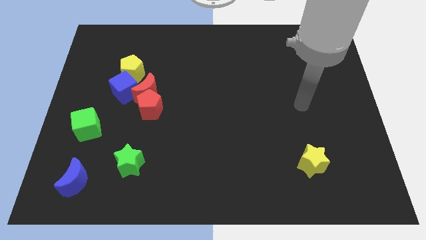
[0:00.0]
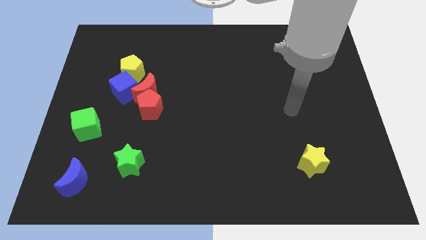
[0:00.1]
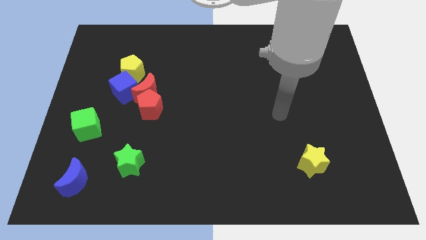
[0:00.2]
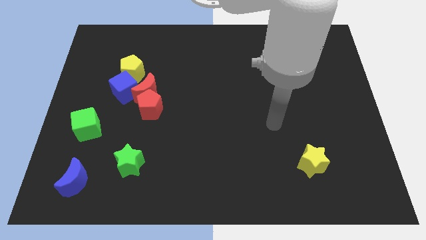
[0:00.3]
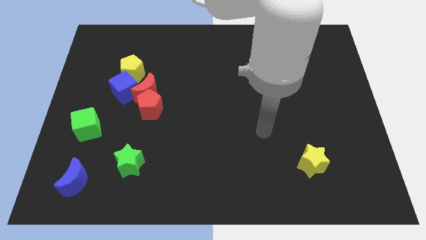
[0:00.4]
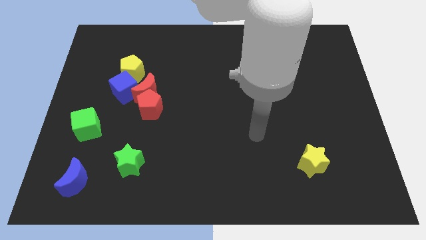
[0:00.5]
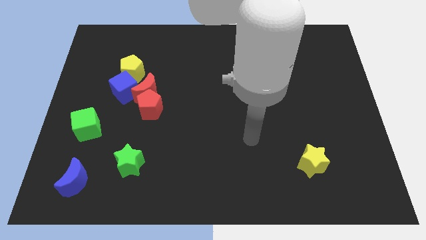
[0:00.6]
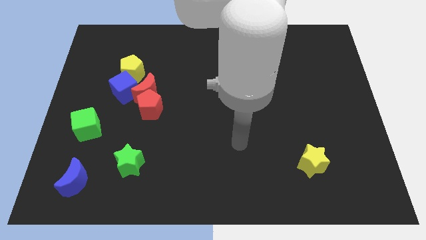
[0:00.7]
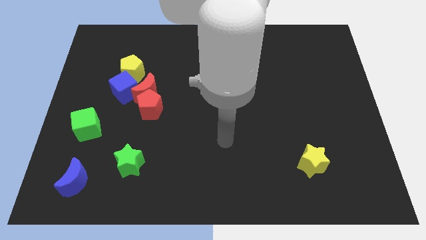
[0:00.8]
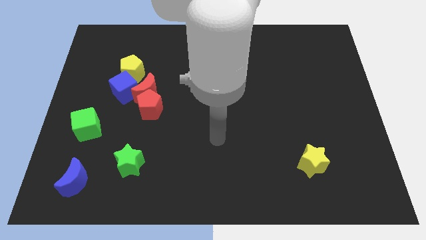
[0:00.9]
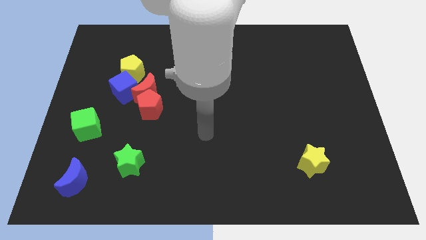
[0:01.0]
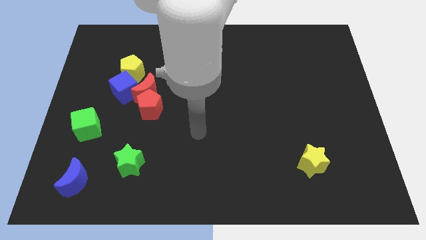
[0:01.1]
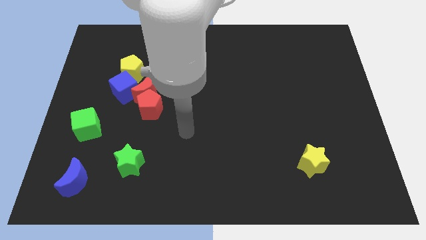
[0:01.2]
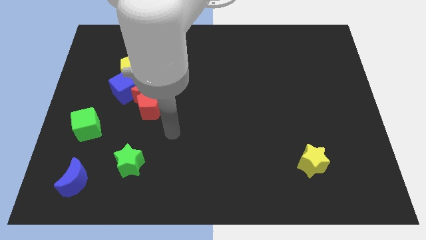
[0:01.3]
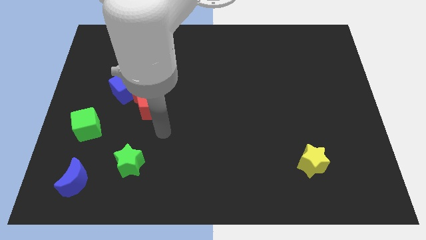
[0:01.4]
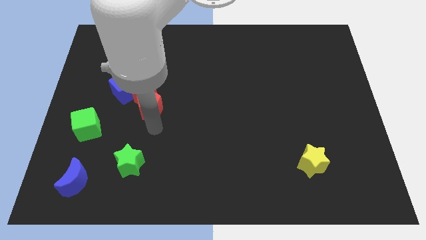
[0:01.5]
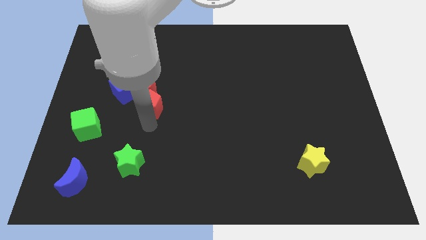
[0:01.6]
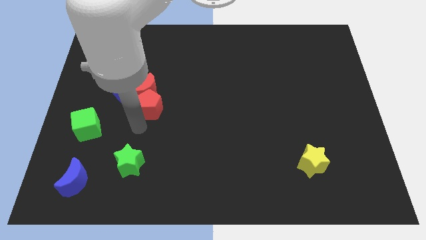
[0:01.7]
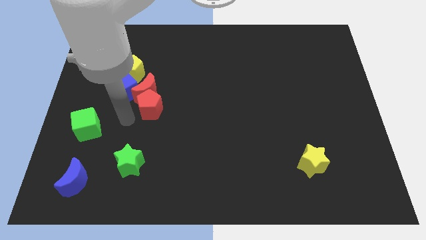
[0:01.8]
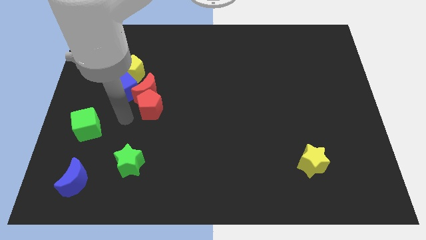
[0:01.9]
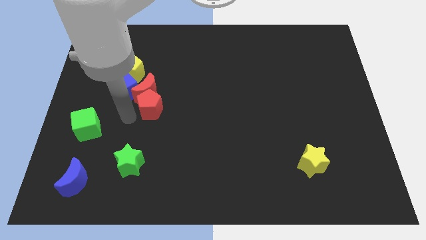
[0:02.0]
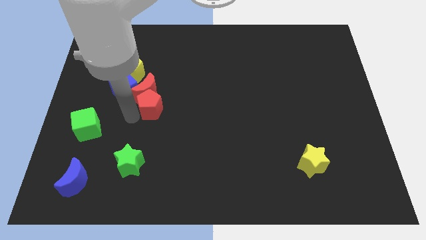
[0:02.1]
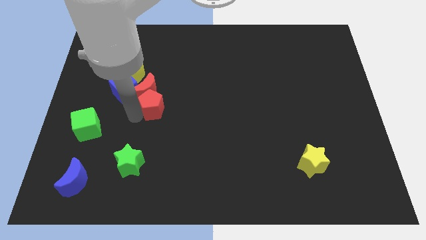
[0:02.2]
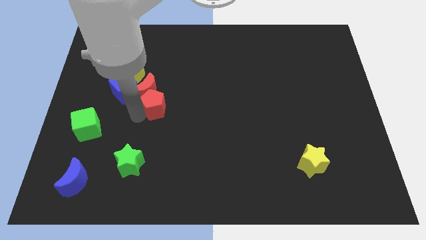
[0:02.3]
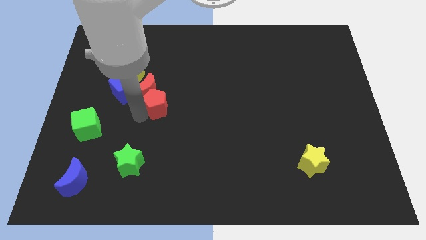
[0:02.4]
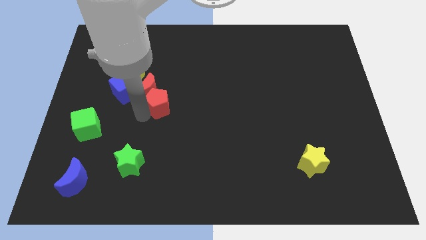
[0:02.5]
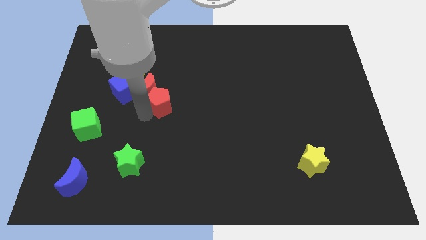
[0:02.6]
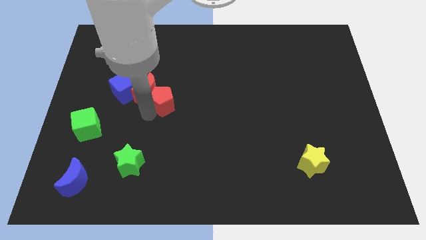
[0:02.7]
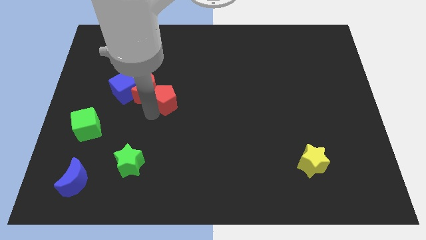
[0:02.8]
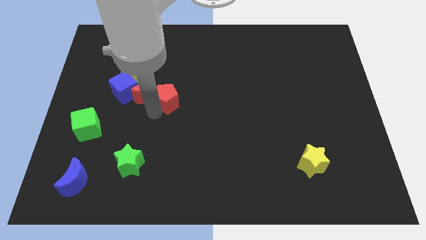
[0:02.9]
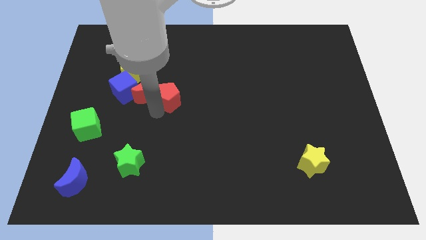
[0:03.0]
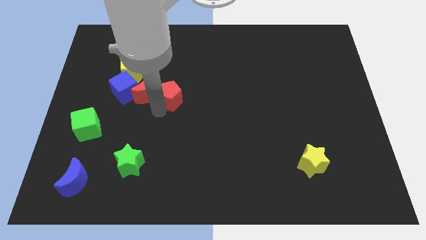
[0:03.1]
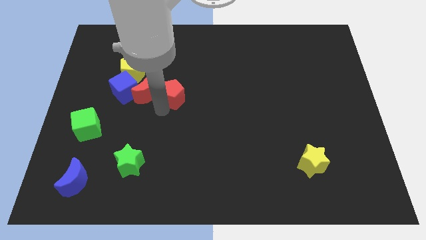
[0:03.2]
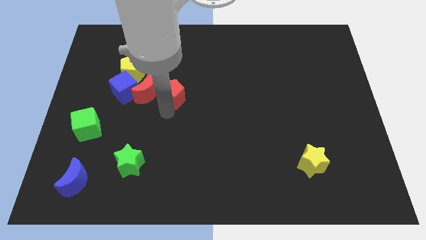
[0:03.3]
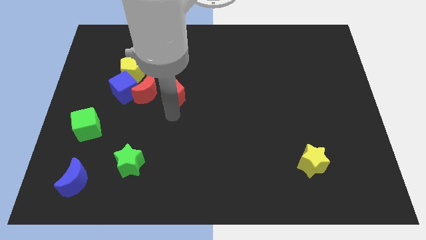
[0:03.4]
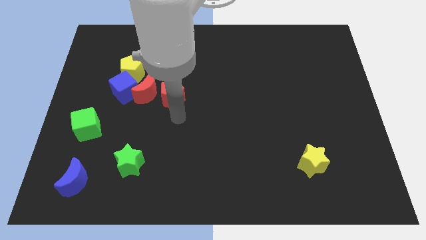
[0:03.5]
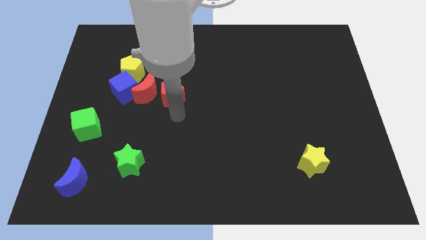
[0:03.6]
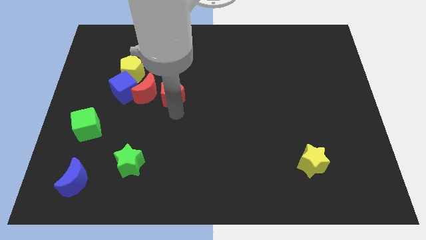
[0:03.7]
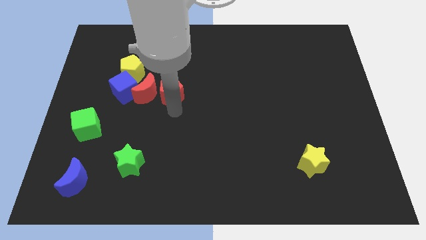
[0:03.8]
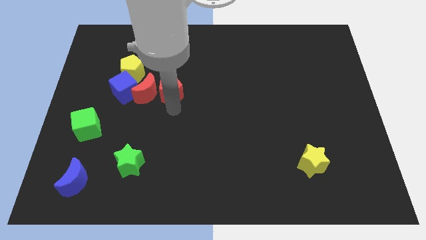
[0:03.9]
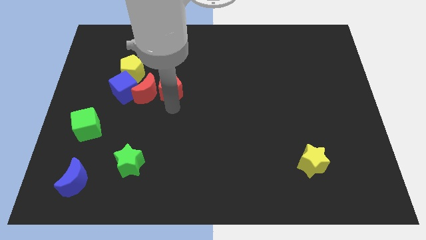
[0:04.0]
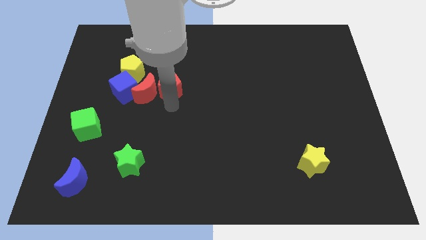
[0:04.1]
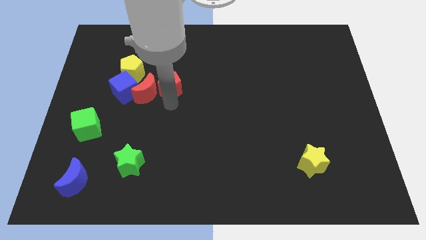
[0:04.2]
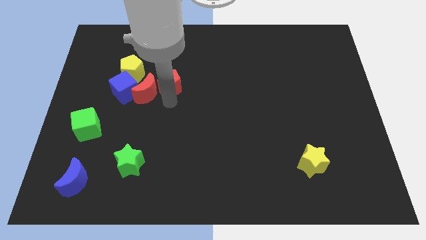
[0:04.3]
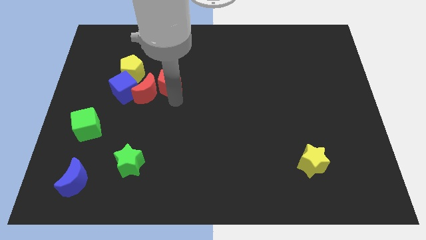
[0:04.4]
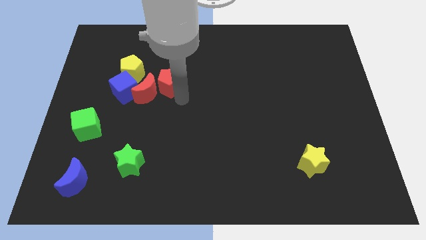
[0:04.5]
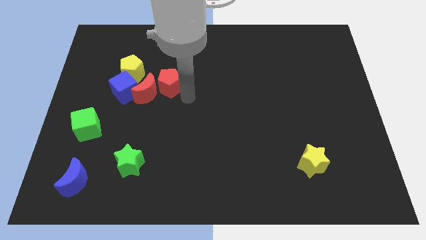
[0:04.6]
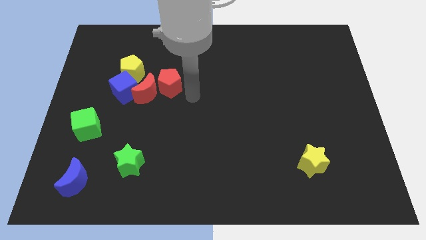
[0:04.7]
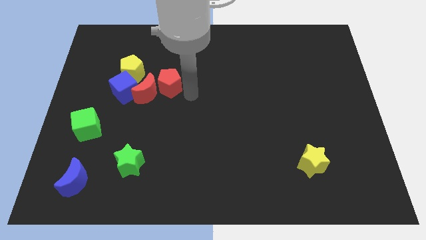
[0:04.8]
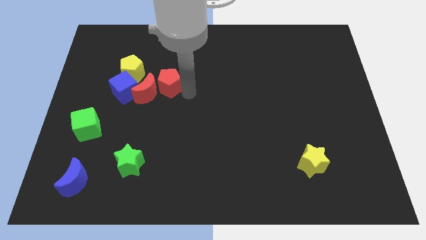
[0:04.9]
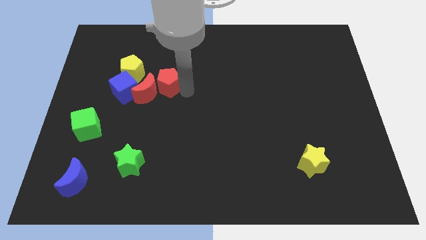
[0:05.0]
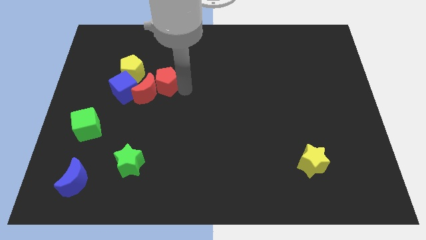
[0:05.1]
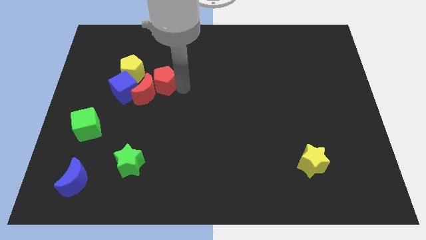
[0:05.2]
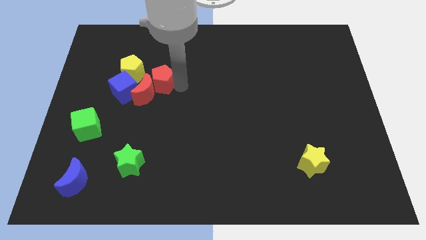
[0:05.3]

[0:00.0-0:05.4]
push the red pentagon to the top right of the blue cube

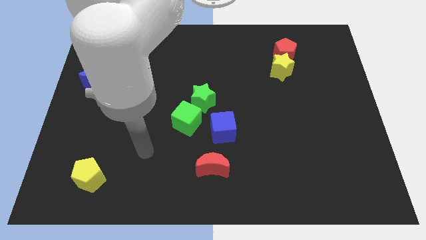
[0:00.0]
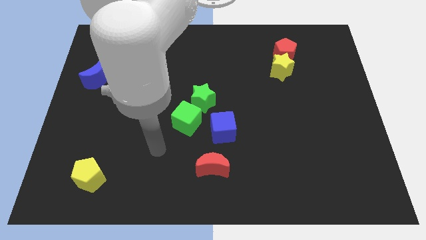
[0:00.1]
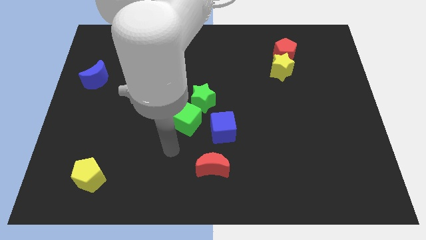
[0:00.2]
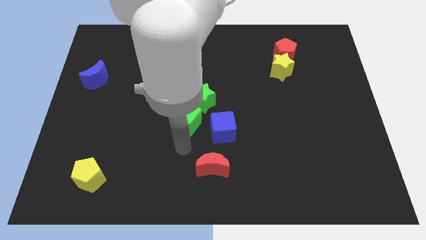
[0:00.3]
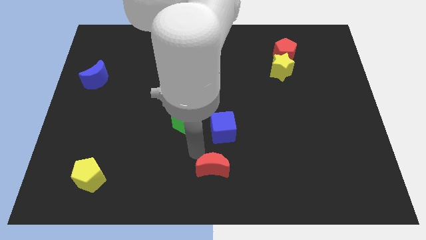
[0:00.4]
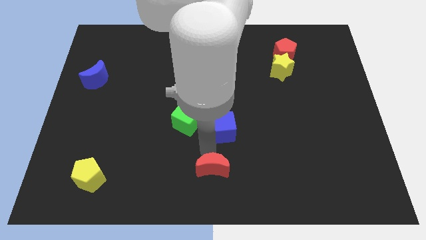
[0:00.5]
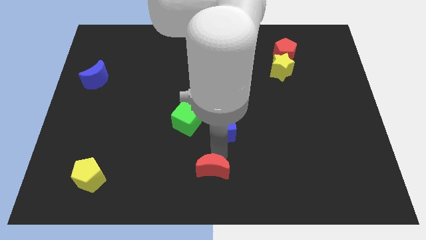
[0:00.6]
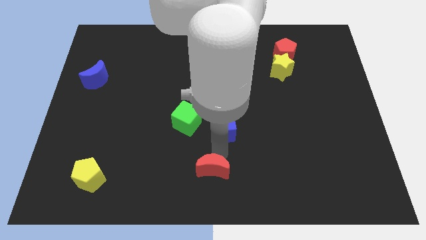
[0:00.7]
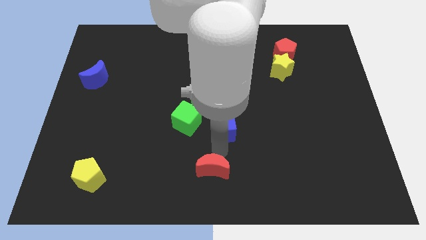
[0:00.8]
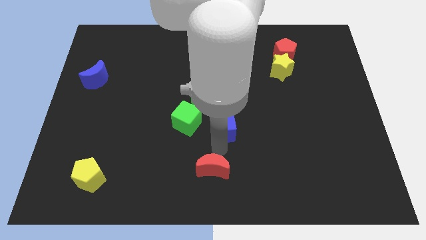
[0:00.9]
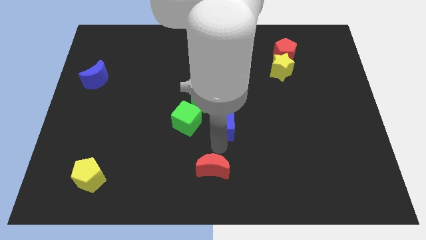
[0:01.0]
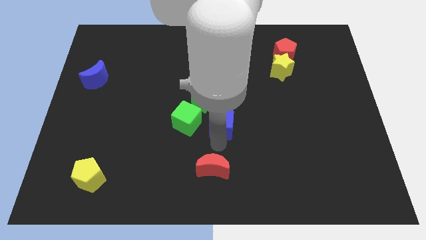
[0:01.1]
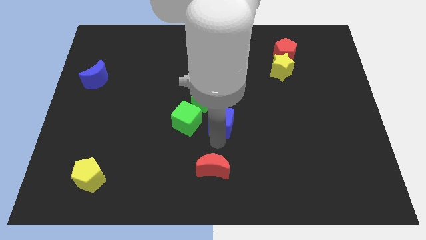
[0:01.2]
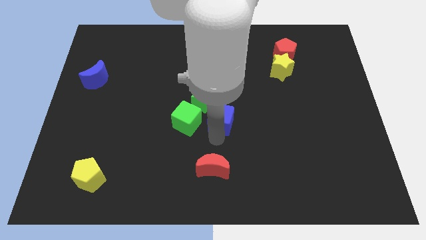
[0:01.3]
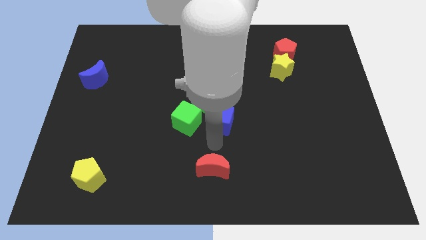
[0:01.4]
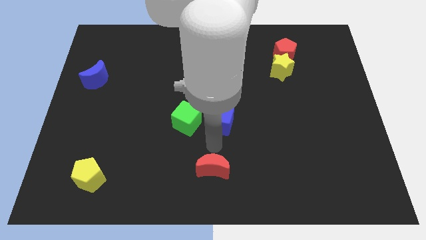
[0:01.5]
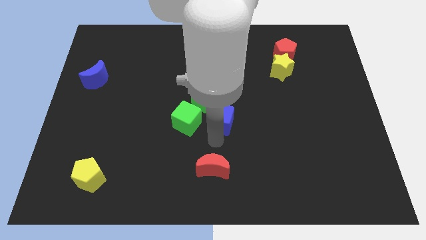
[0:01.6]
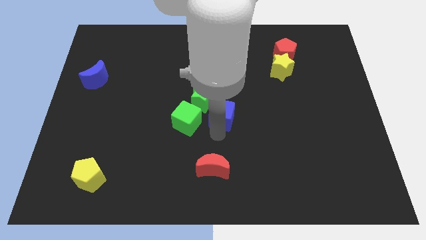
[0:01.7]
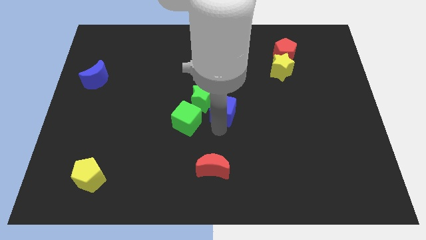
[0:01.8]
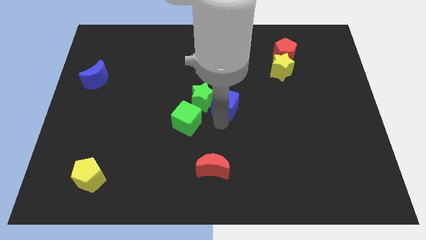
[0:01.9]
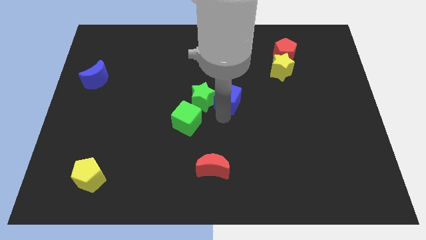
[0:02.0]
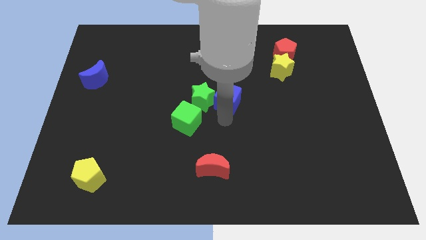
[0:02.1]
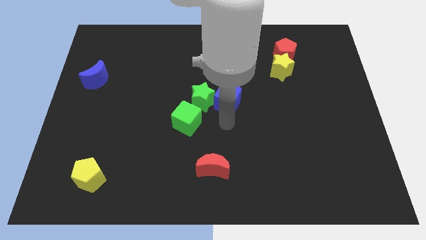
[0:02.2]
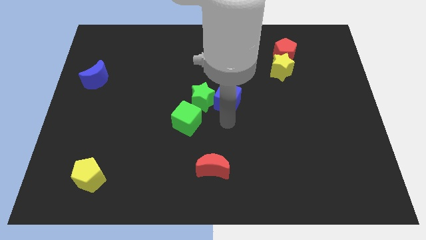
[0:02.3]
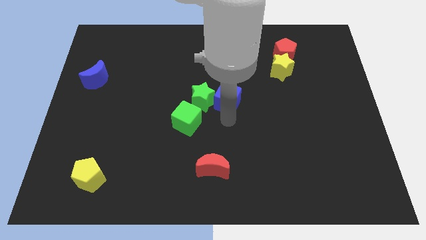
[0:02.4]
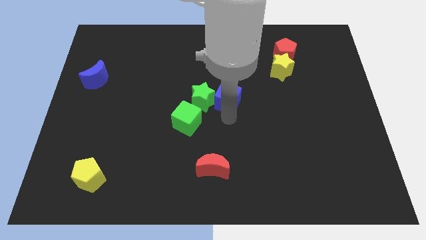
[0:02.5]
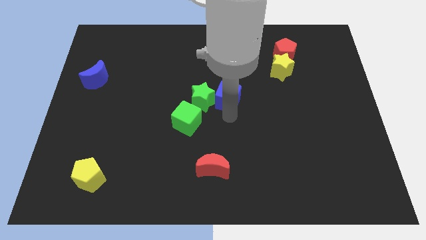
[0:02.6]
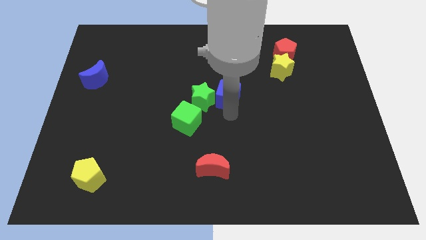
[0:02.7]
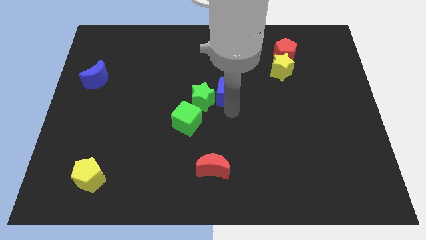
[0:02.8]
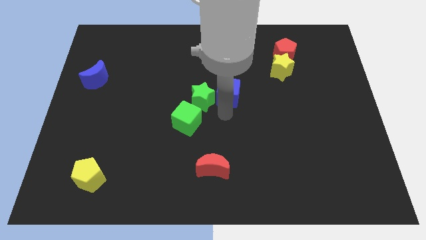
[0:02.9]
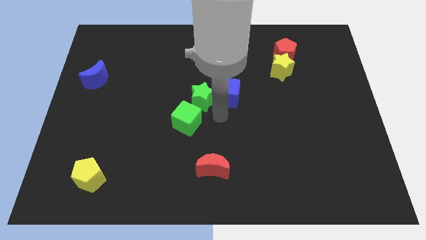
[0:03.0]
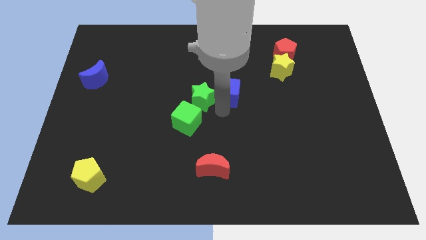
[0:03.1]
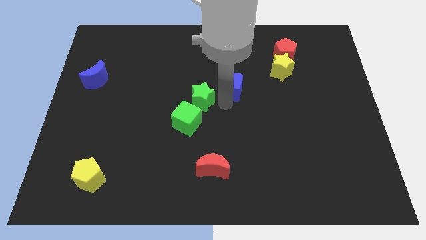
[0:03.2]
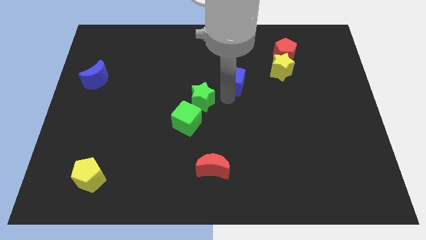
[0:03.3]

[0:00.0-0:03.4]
move the blue cube just left of the yellow star
